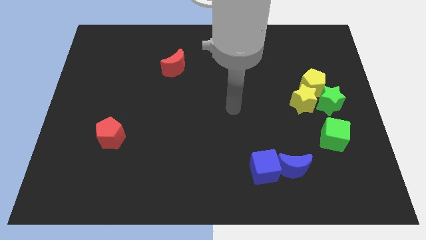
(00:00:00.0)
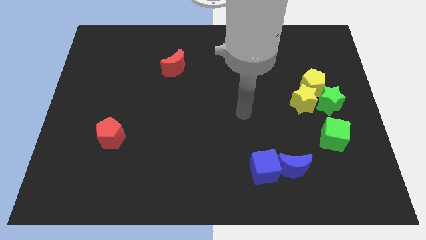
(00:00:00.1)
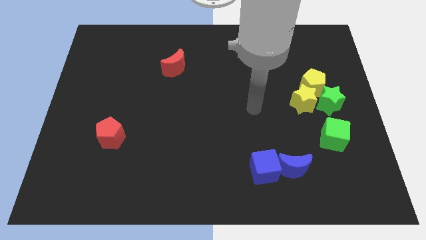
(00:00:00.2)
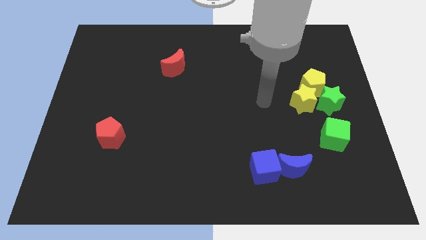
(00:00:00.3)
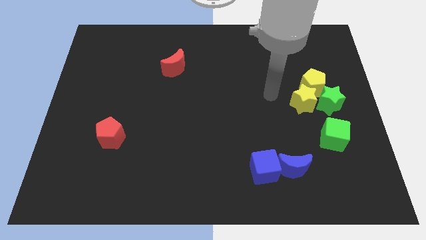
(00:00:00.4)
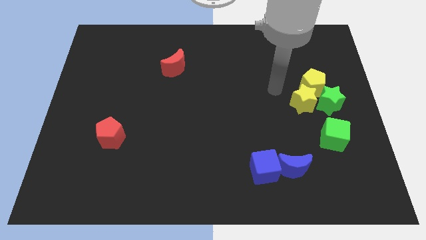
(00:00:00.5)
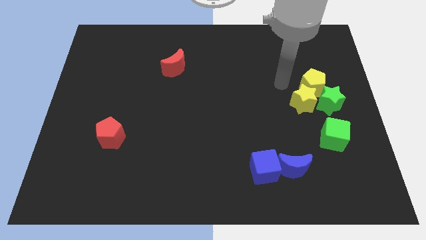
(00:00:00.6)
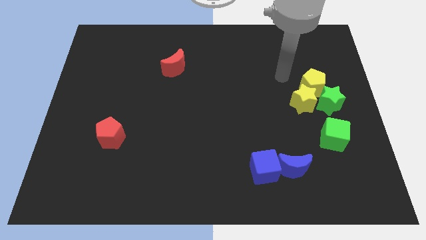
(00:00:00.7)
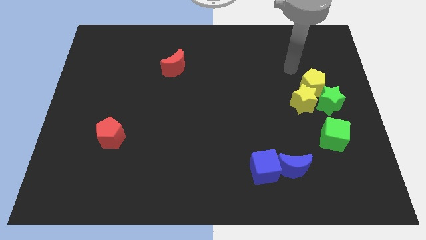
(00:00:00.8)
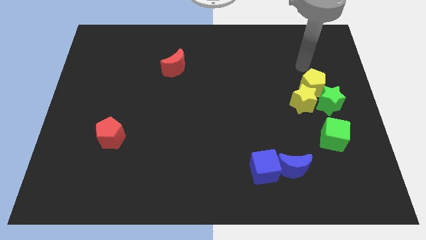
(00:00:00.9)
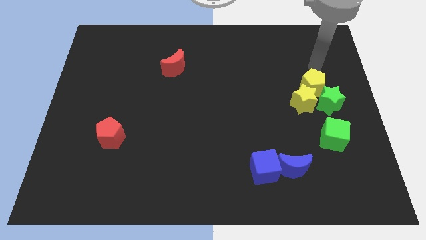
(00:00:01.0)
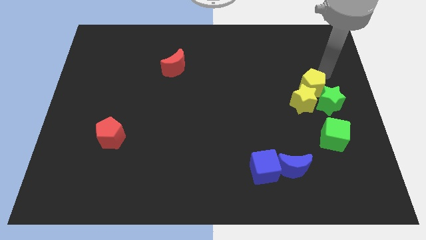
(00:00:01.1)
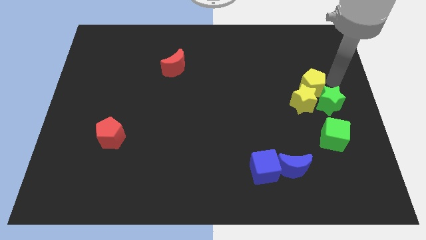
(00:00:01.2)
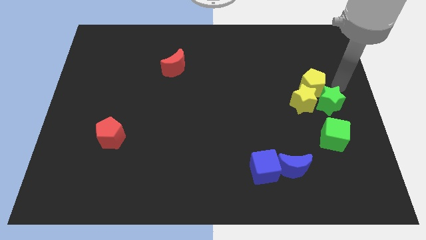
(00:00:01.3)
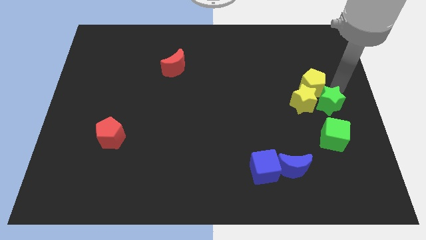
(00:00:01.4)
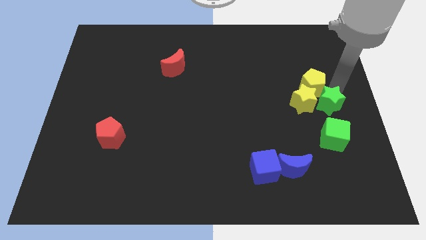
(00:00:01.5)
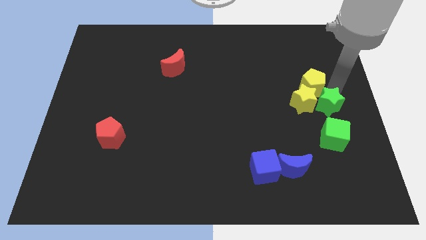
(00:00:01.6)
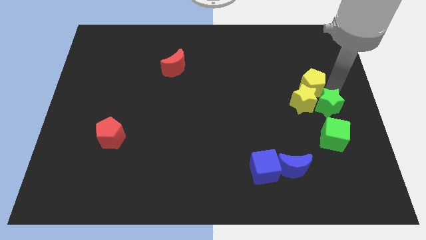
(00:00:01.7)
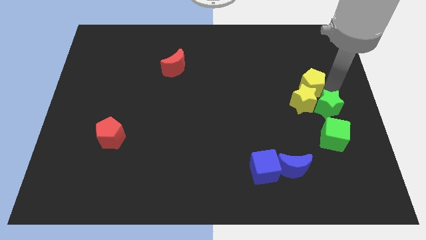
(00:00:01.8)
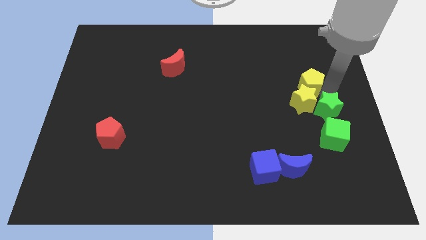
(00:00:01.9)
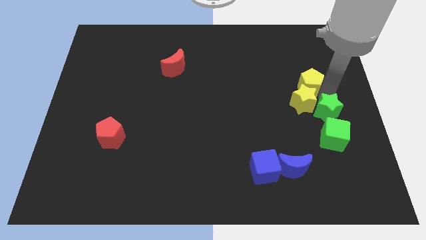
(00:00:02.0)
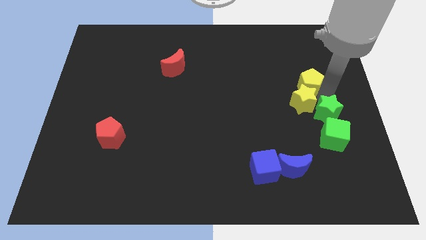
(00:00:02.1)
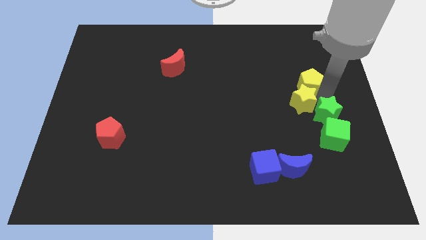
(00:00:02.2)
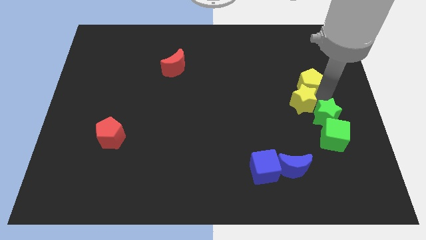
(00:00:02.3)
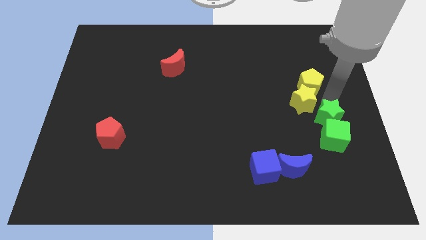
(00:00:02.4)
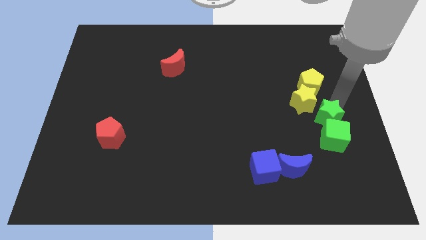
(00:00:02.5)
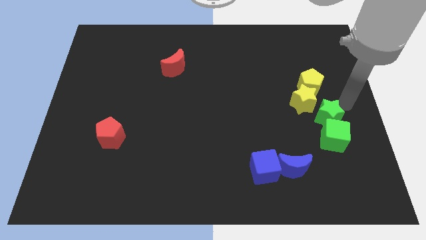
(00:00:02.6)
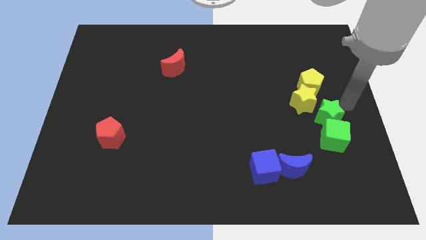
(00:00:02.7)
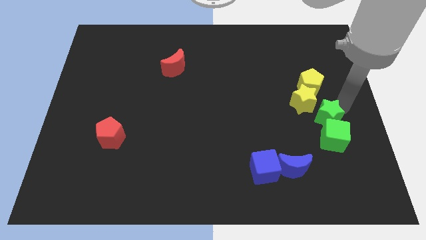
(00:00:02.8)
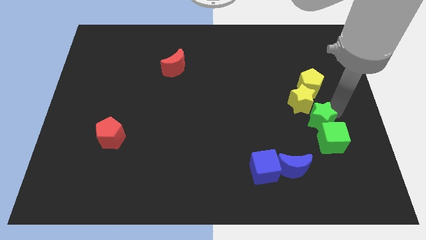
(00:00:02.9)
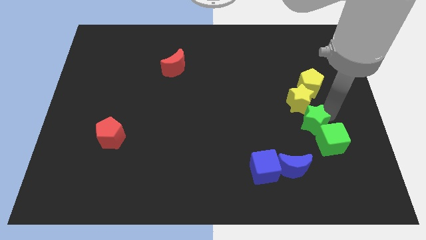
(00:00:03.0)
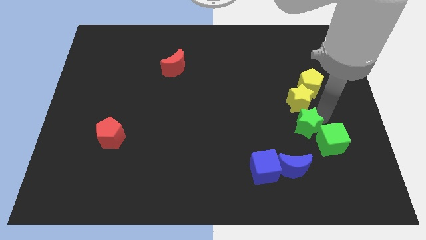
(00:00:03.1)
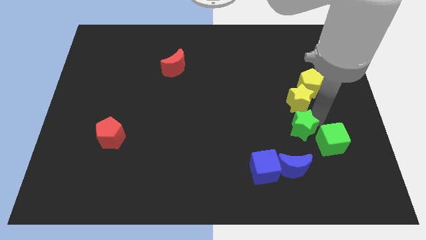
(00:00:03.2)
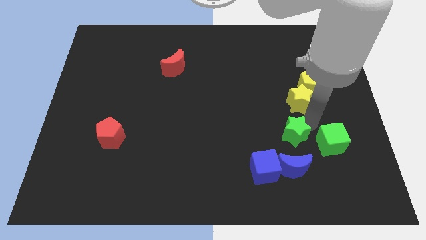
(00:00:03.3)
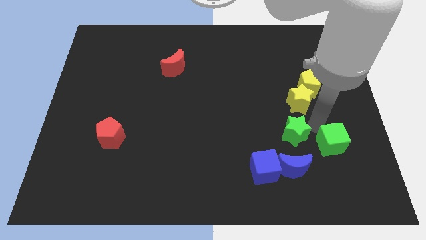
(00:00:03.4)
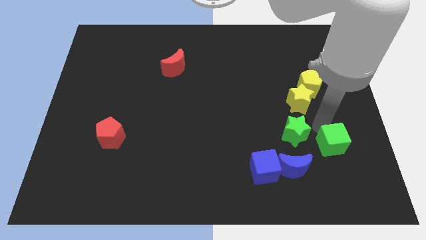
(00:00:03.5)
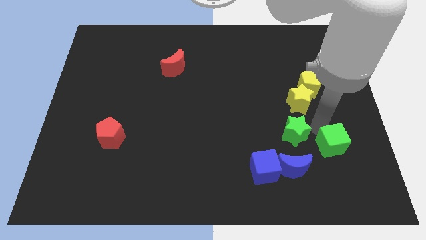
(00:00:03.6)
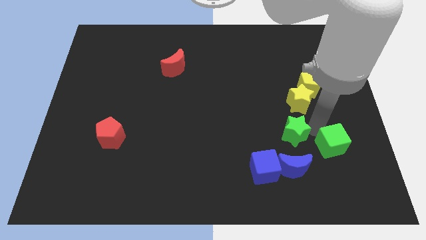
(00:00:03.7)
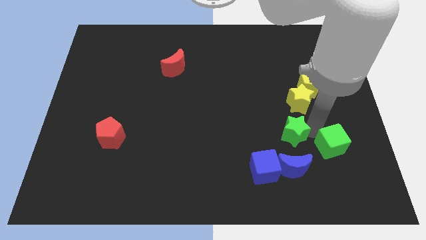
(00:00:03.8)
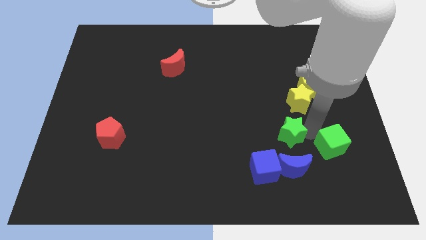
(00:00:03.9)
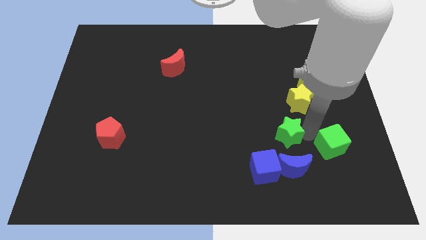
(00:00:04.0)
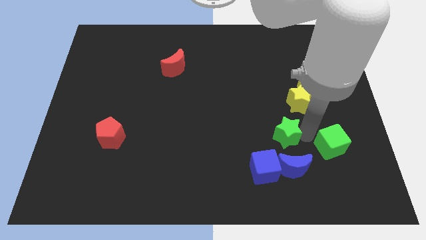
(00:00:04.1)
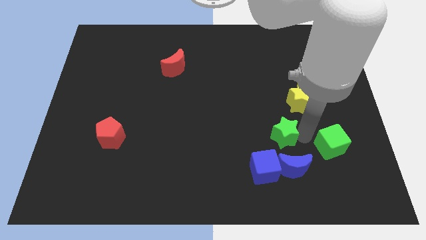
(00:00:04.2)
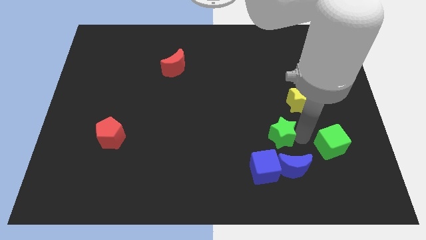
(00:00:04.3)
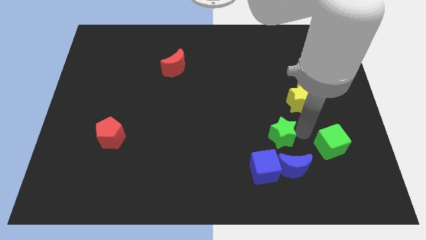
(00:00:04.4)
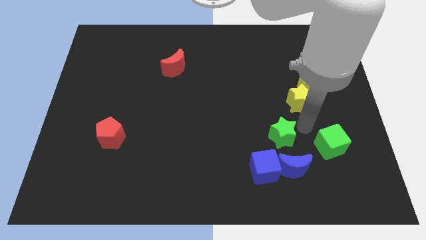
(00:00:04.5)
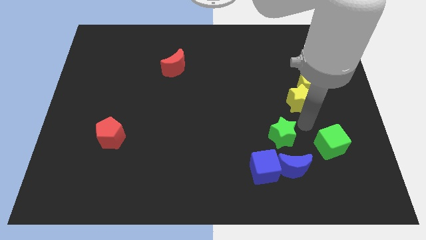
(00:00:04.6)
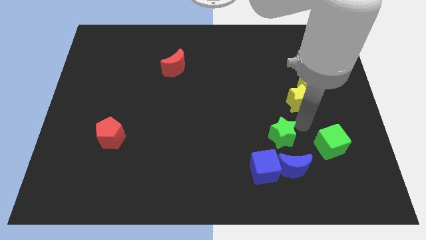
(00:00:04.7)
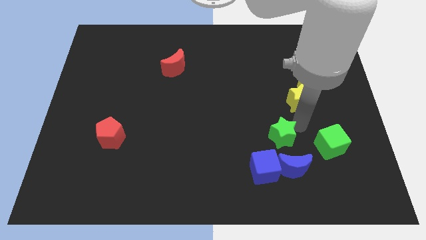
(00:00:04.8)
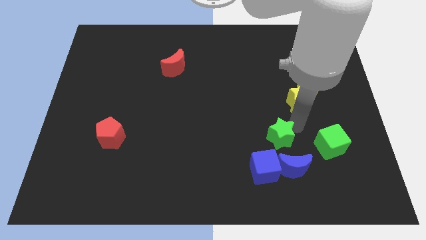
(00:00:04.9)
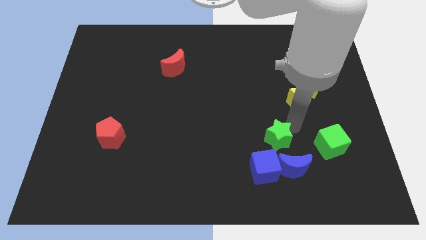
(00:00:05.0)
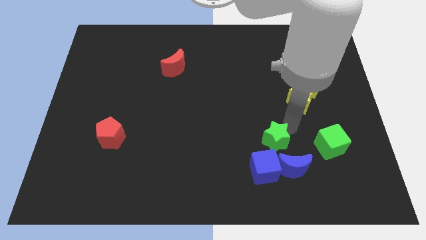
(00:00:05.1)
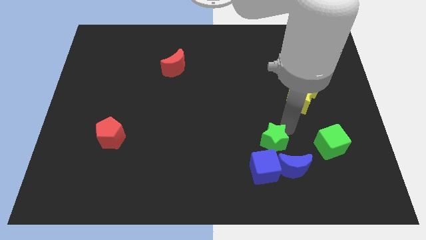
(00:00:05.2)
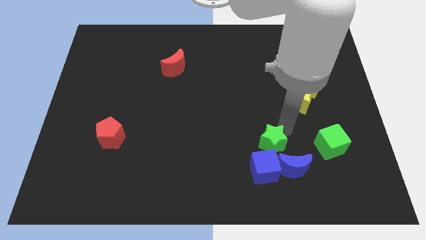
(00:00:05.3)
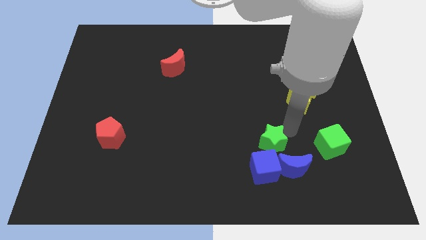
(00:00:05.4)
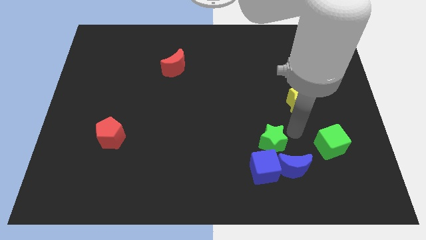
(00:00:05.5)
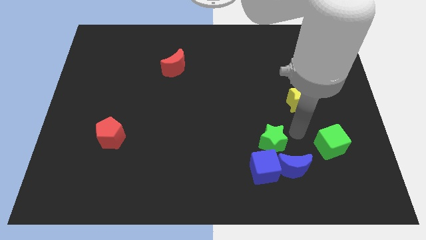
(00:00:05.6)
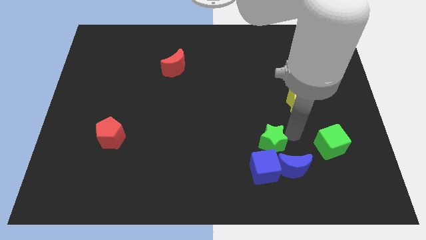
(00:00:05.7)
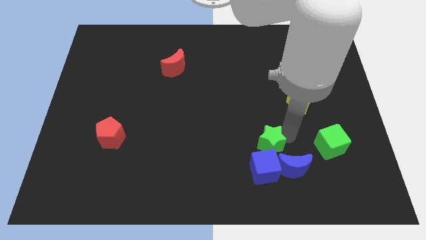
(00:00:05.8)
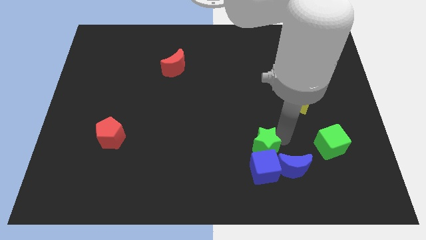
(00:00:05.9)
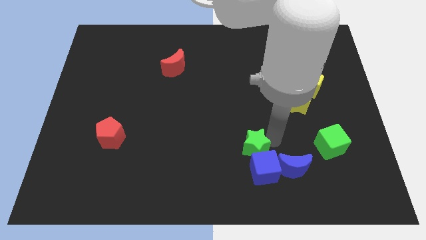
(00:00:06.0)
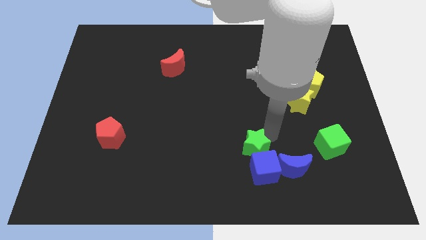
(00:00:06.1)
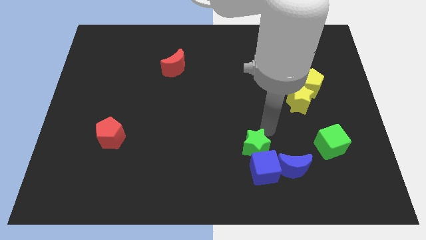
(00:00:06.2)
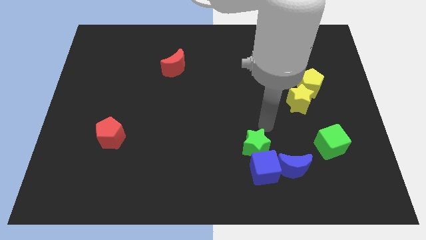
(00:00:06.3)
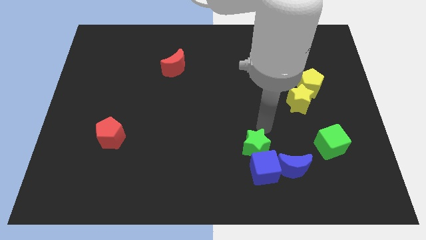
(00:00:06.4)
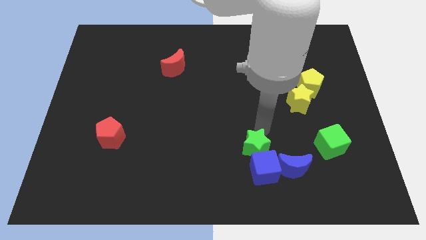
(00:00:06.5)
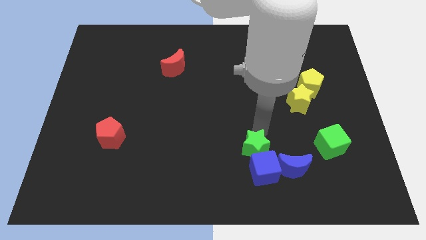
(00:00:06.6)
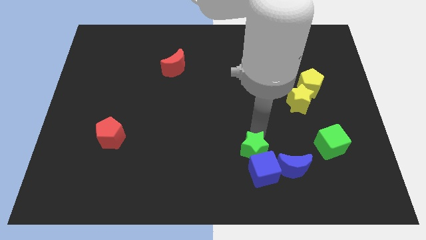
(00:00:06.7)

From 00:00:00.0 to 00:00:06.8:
slide the green star just left of the blue moon
